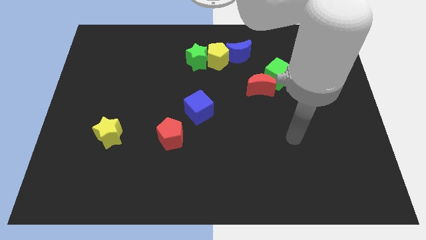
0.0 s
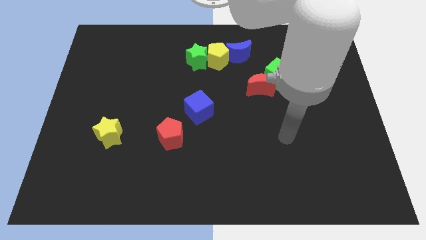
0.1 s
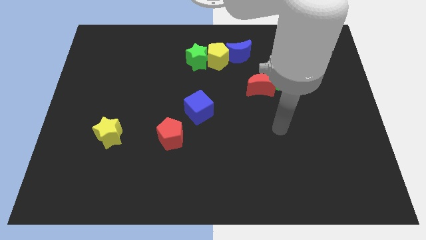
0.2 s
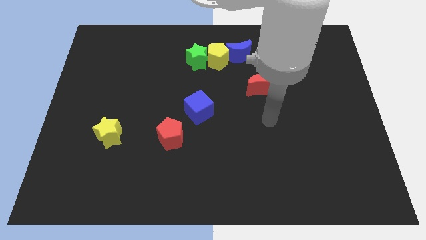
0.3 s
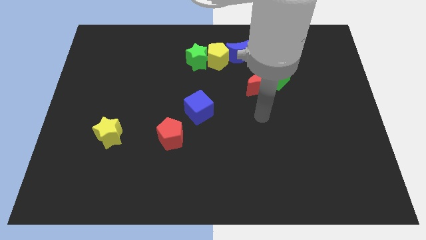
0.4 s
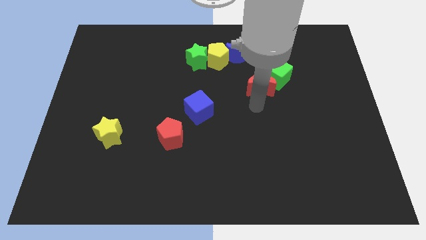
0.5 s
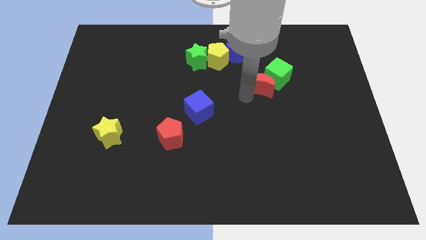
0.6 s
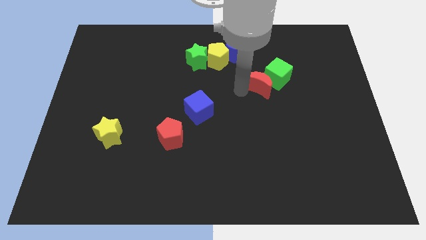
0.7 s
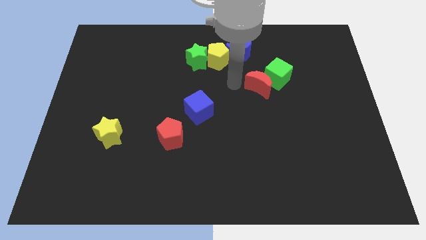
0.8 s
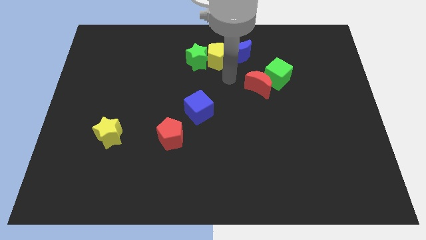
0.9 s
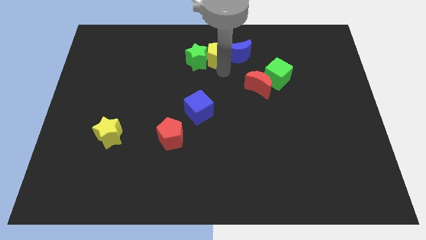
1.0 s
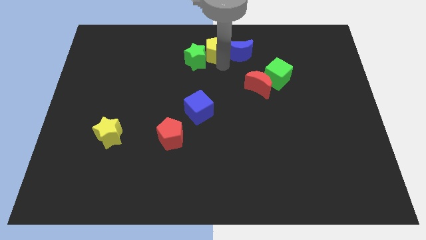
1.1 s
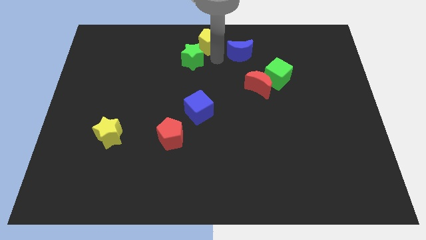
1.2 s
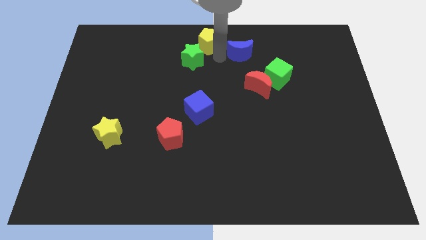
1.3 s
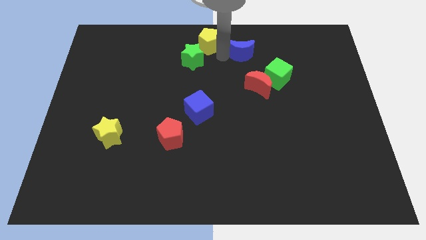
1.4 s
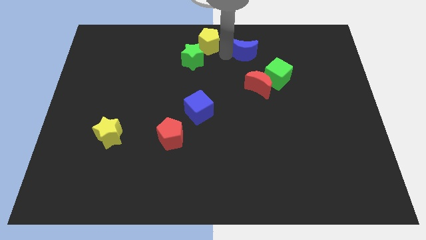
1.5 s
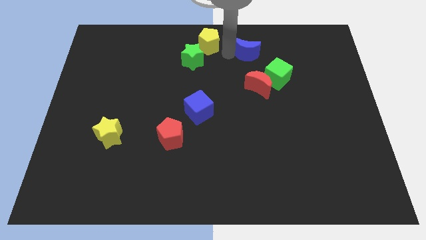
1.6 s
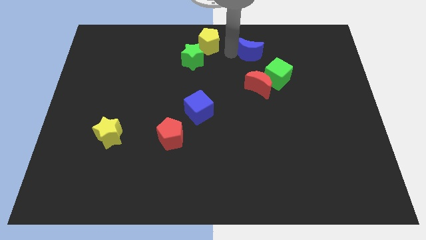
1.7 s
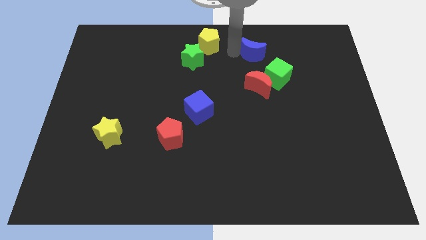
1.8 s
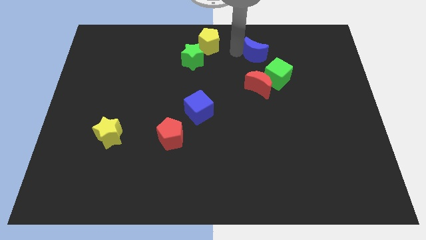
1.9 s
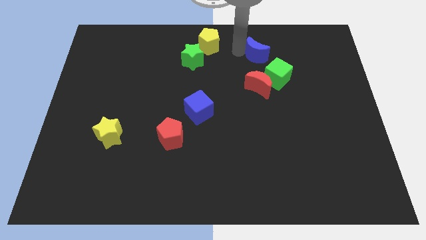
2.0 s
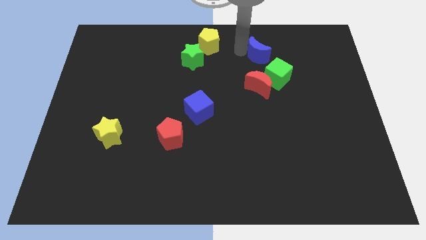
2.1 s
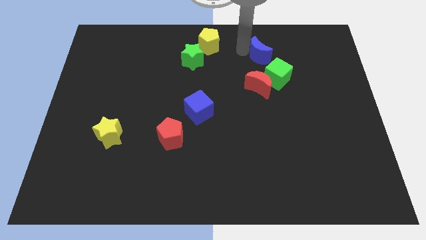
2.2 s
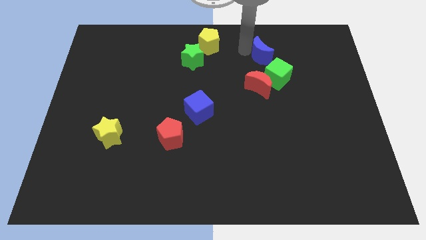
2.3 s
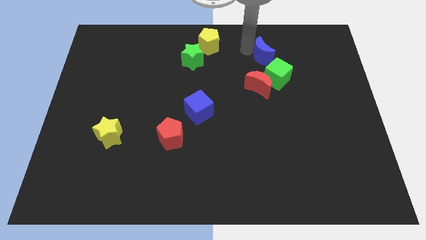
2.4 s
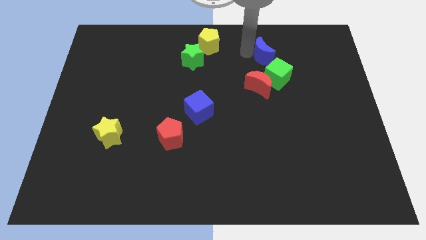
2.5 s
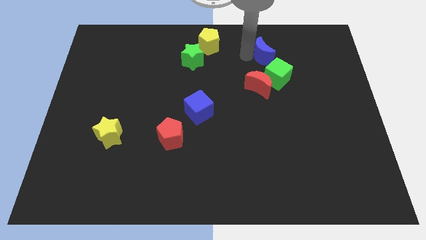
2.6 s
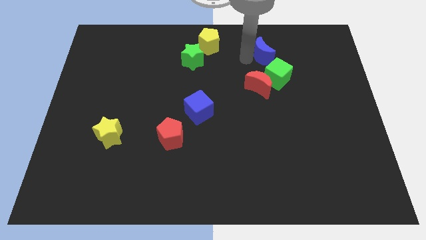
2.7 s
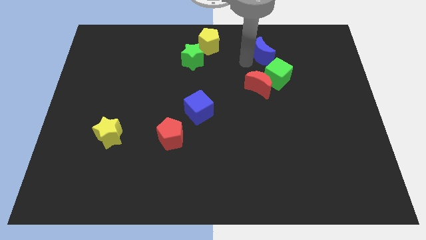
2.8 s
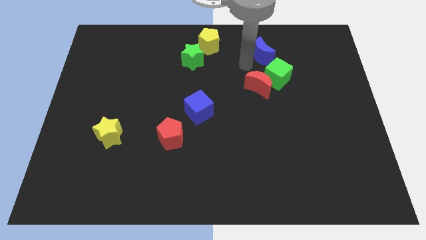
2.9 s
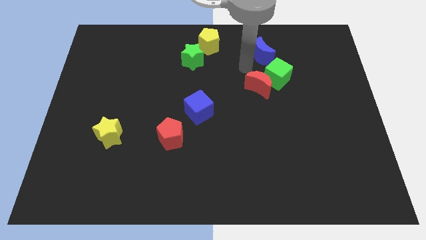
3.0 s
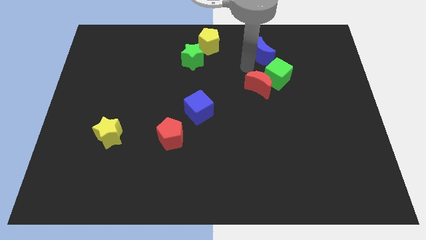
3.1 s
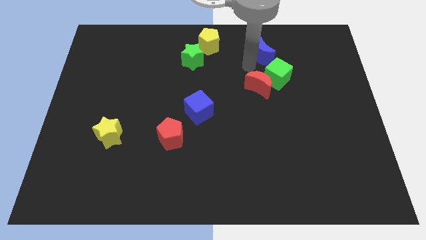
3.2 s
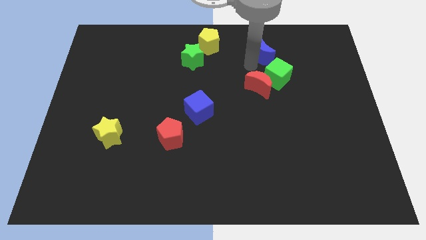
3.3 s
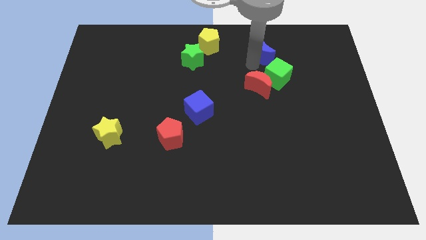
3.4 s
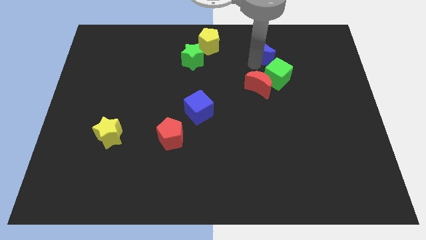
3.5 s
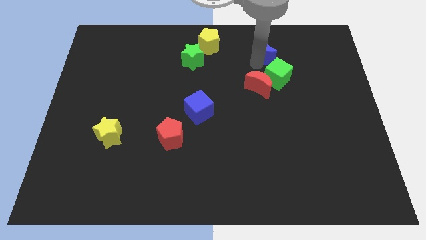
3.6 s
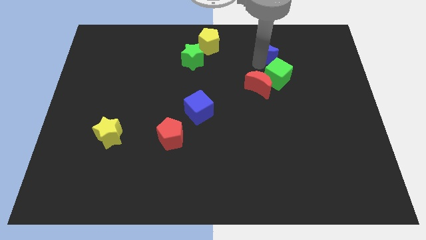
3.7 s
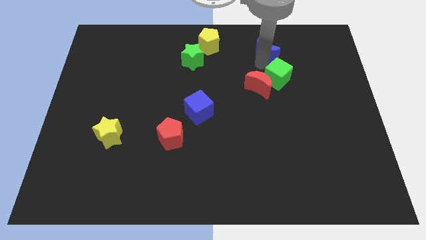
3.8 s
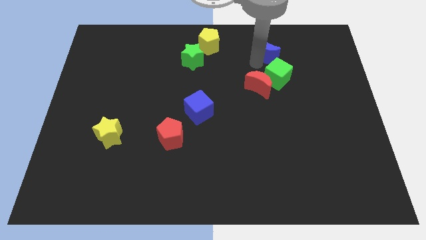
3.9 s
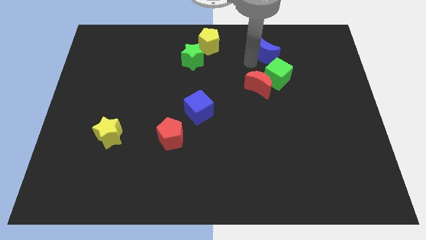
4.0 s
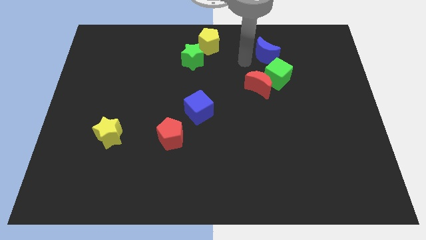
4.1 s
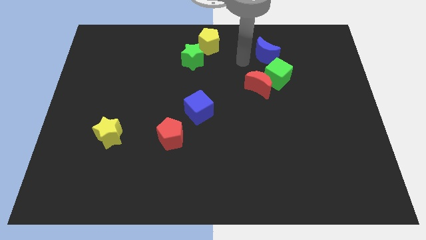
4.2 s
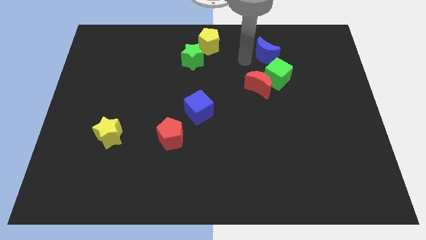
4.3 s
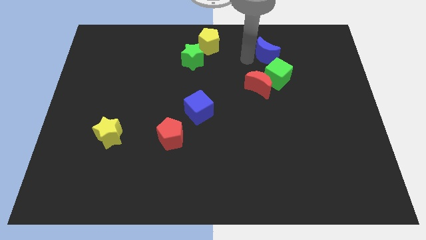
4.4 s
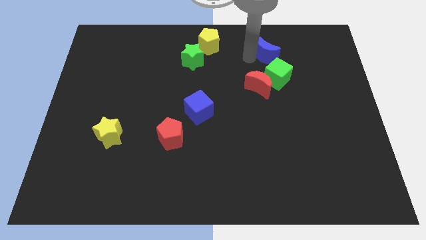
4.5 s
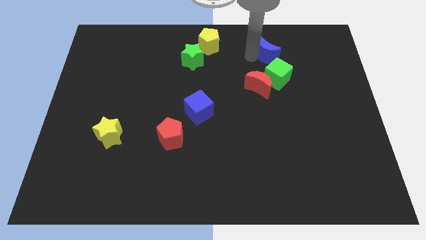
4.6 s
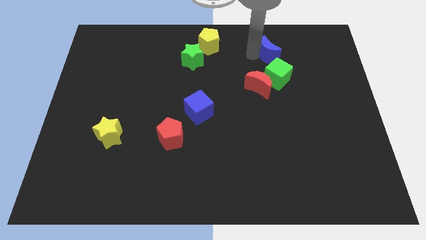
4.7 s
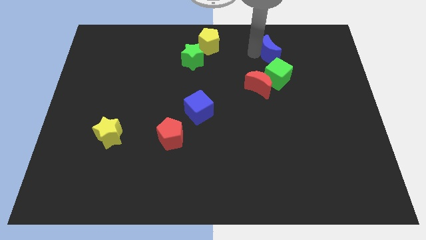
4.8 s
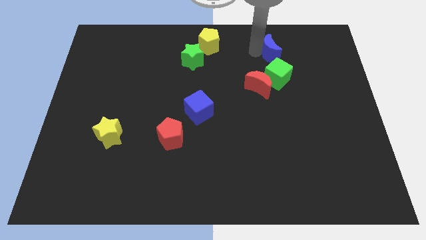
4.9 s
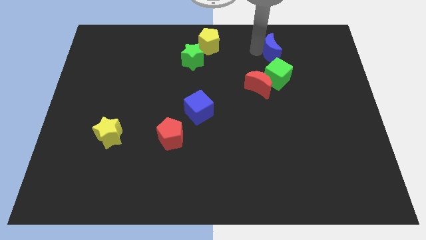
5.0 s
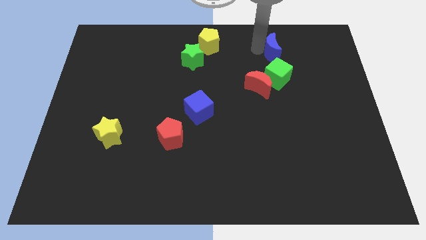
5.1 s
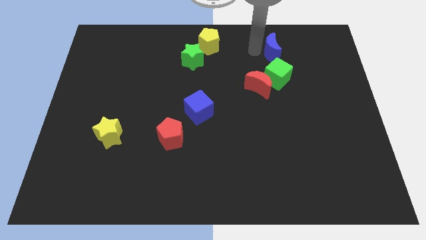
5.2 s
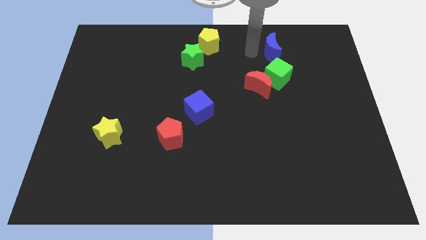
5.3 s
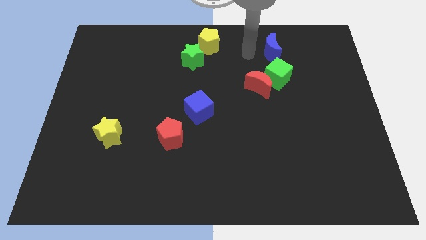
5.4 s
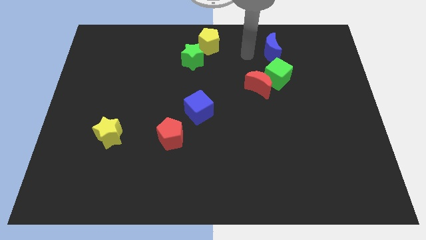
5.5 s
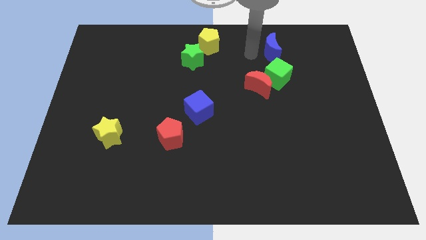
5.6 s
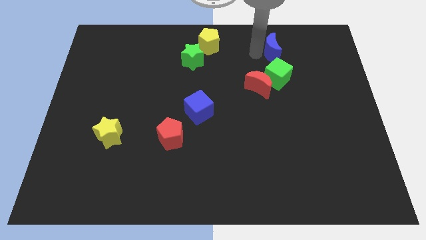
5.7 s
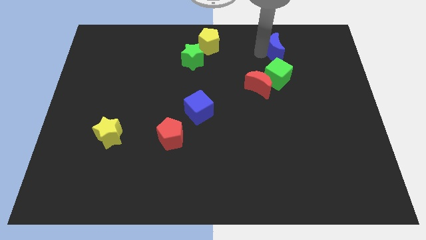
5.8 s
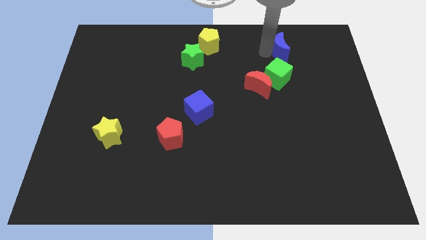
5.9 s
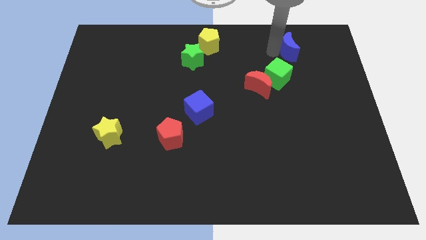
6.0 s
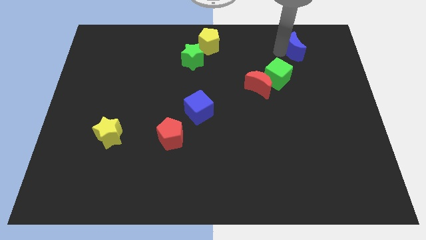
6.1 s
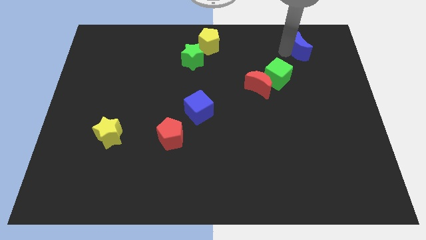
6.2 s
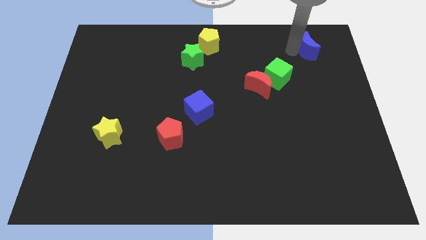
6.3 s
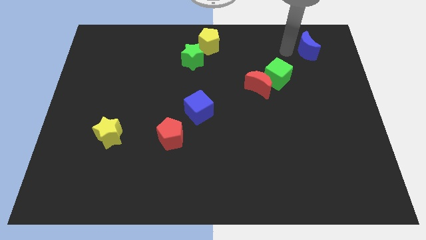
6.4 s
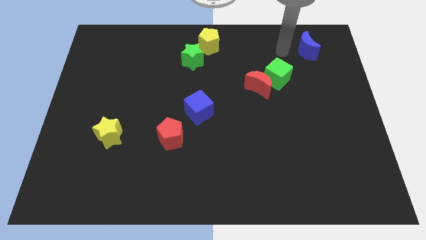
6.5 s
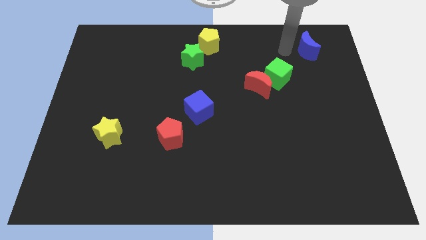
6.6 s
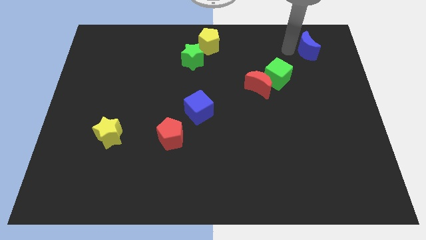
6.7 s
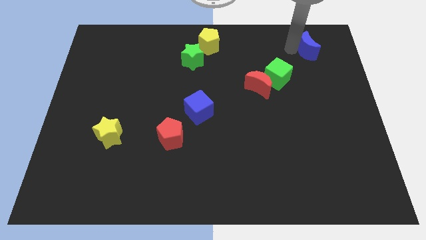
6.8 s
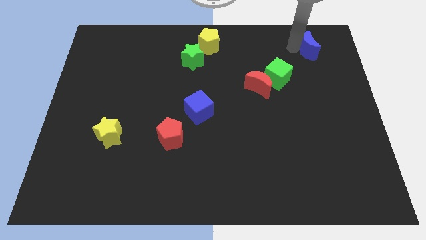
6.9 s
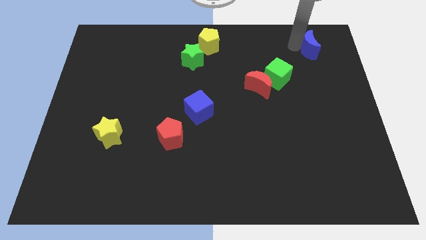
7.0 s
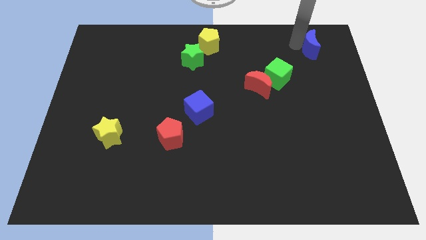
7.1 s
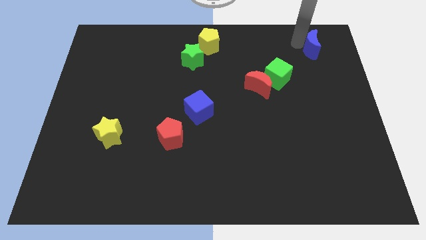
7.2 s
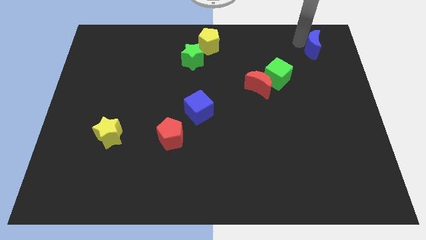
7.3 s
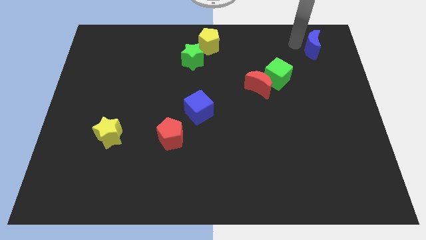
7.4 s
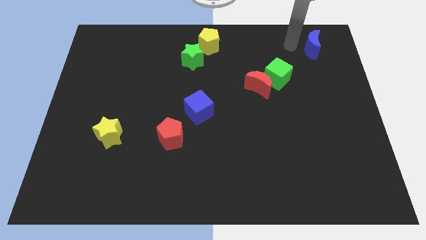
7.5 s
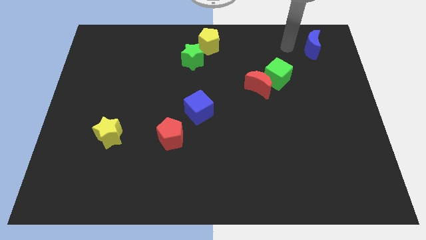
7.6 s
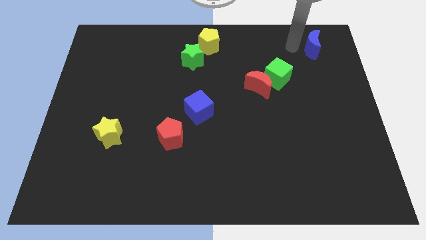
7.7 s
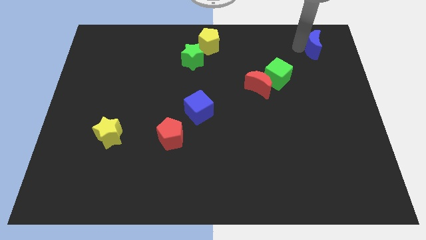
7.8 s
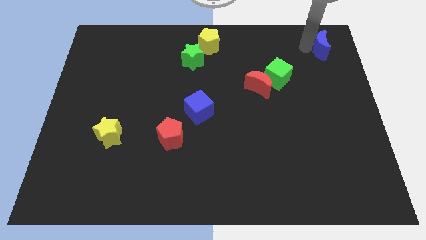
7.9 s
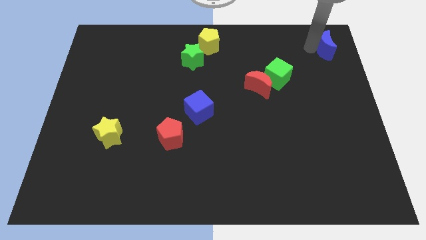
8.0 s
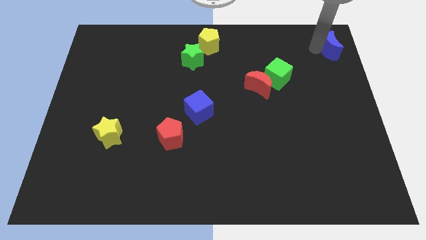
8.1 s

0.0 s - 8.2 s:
put the blue moon to the top right of the board
